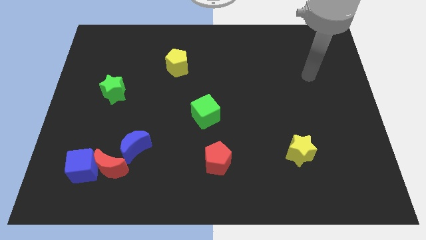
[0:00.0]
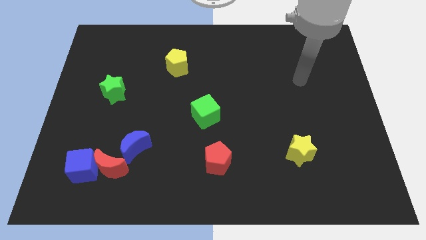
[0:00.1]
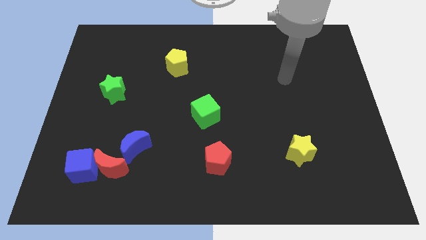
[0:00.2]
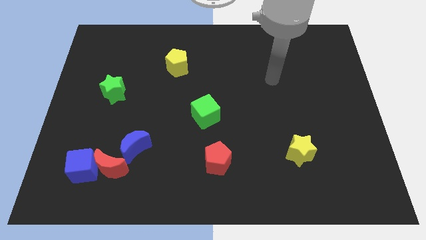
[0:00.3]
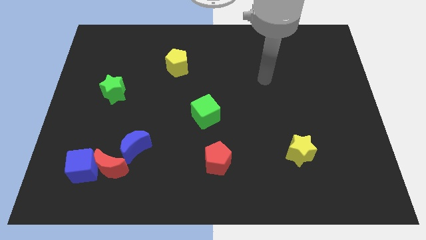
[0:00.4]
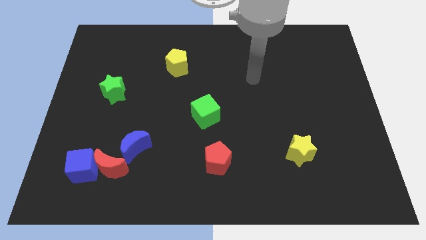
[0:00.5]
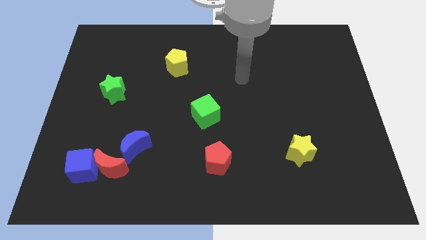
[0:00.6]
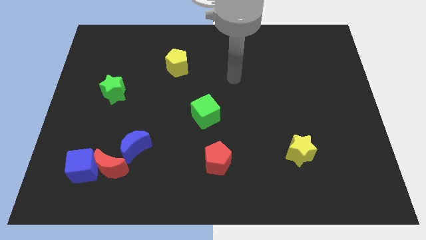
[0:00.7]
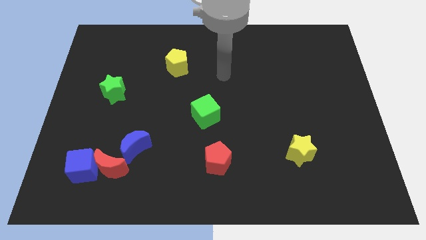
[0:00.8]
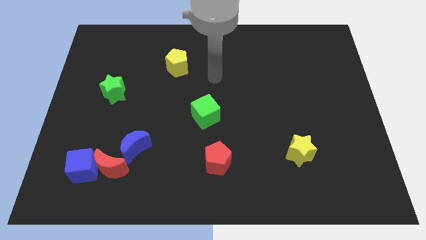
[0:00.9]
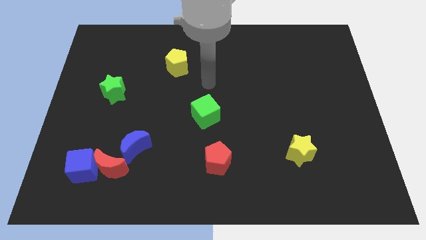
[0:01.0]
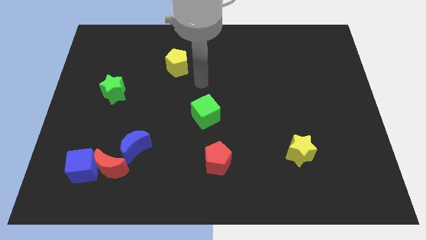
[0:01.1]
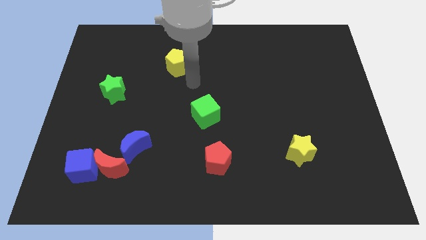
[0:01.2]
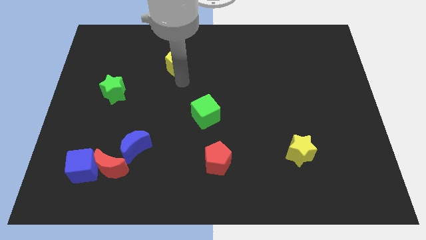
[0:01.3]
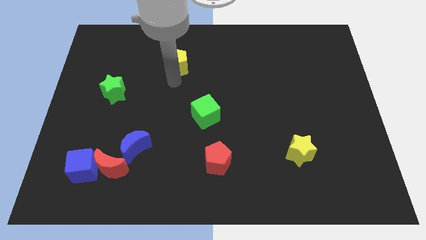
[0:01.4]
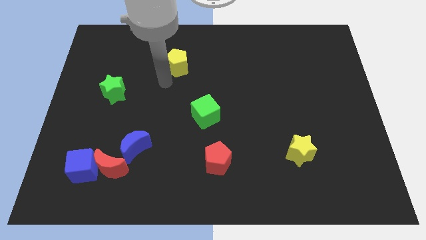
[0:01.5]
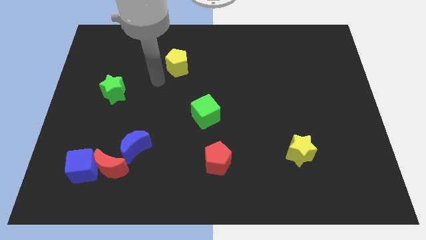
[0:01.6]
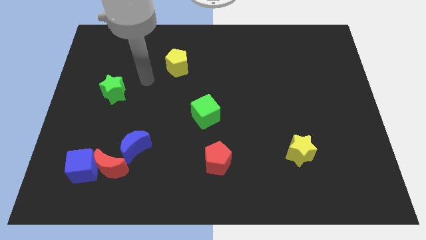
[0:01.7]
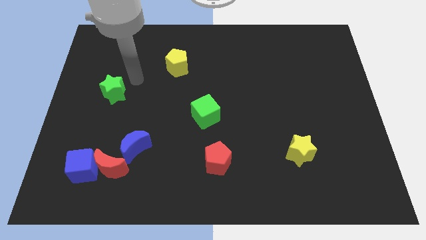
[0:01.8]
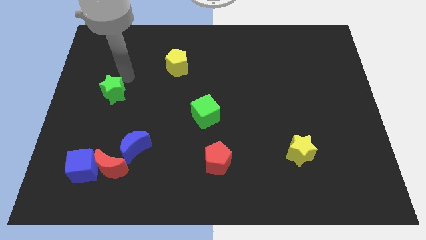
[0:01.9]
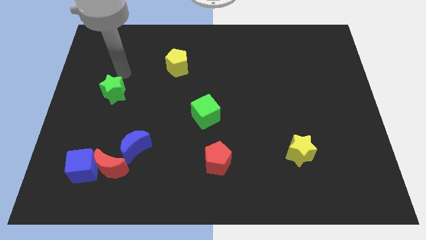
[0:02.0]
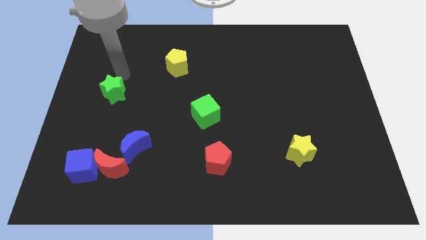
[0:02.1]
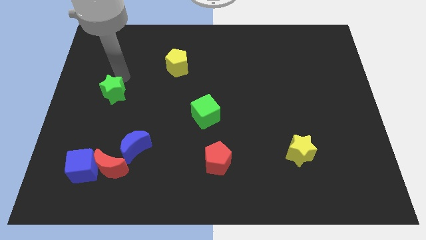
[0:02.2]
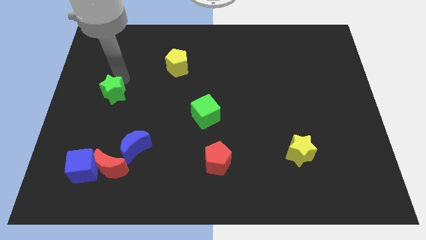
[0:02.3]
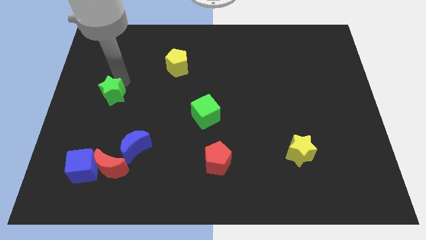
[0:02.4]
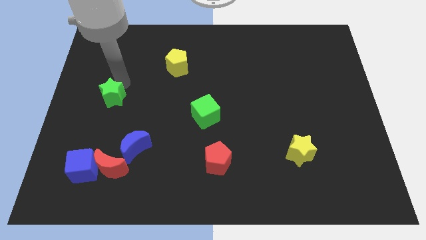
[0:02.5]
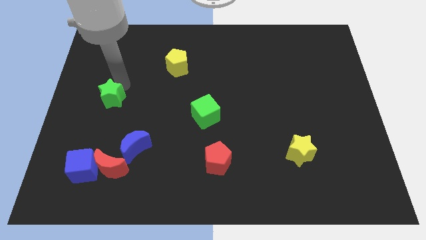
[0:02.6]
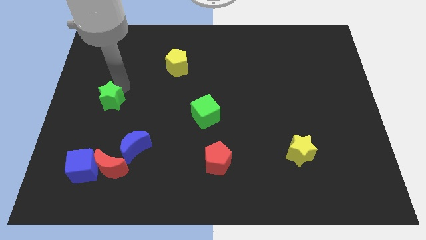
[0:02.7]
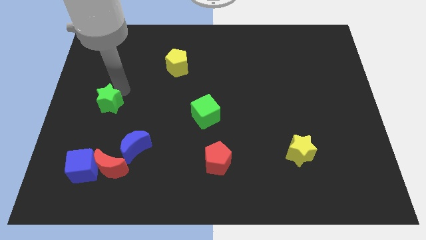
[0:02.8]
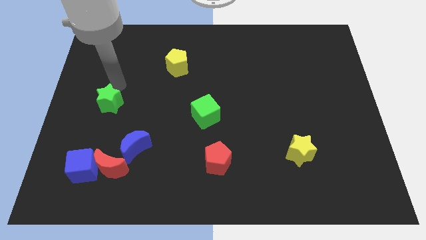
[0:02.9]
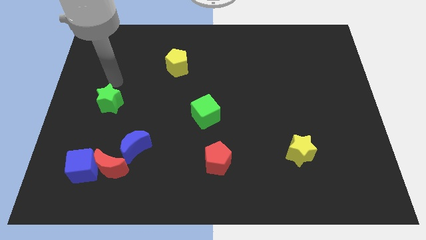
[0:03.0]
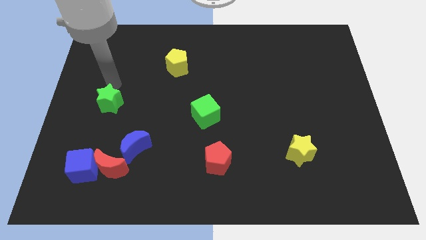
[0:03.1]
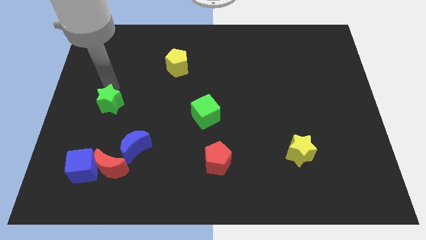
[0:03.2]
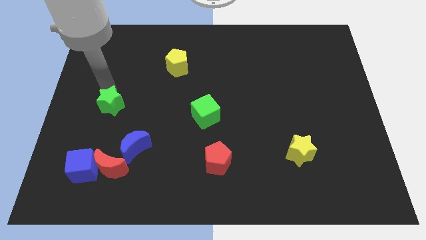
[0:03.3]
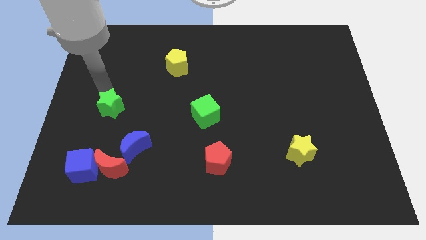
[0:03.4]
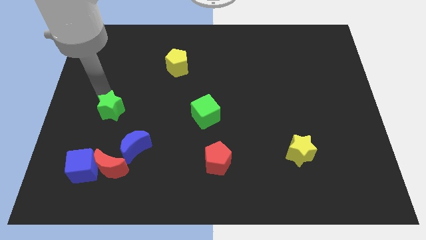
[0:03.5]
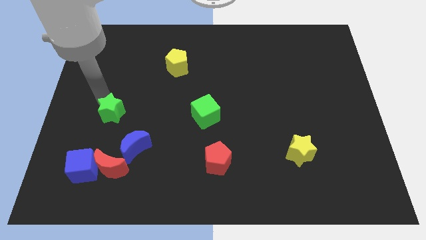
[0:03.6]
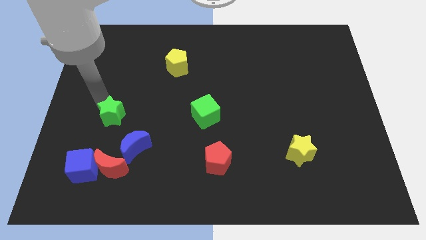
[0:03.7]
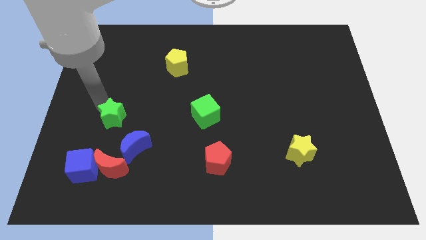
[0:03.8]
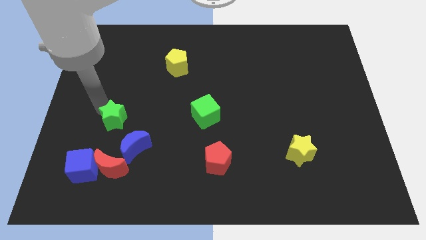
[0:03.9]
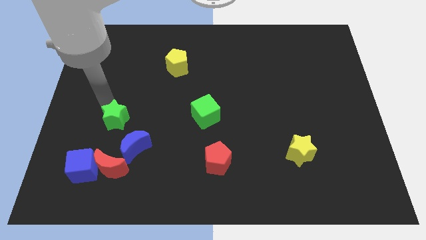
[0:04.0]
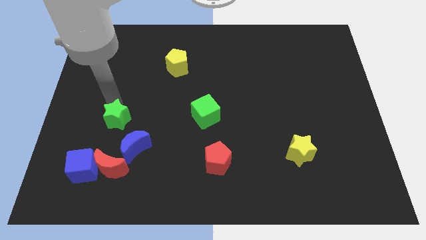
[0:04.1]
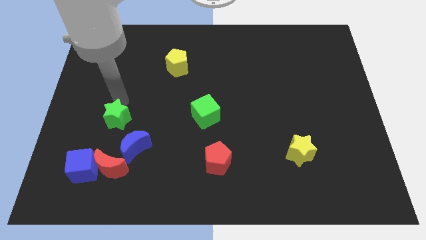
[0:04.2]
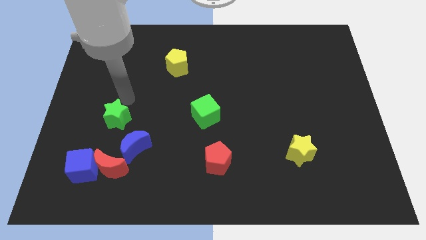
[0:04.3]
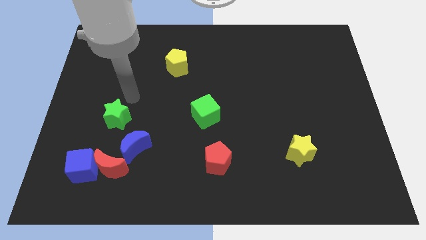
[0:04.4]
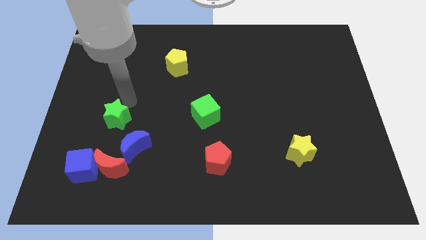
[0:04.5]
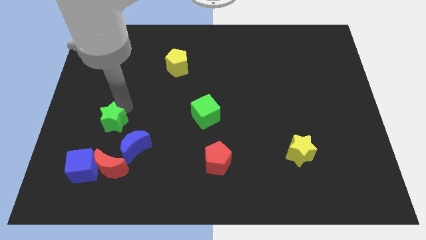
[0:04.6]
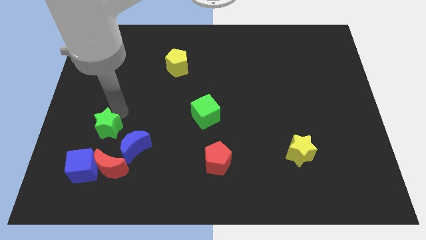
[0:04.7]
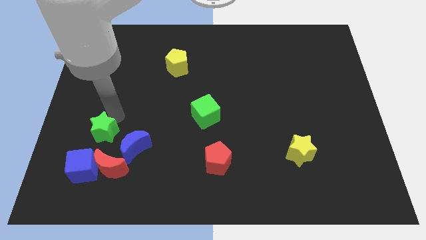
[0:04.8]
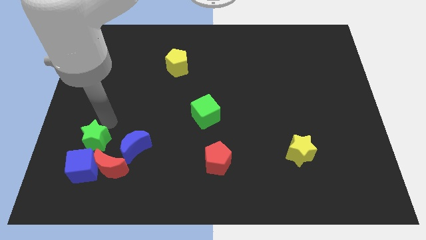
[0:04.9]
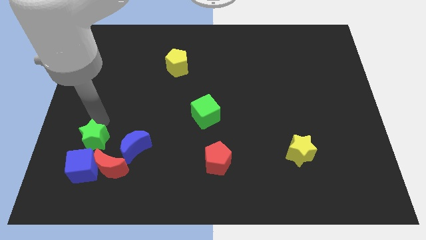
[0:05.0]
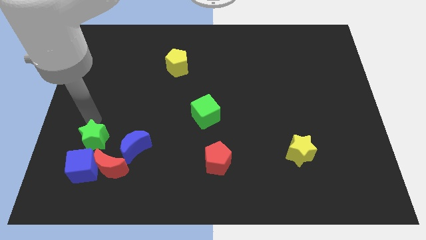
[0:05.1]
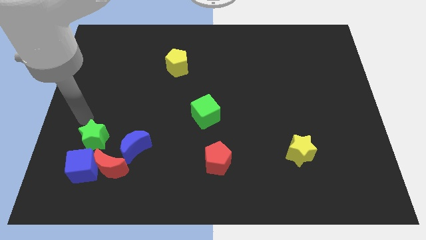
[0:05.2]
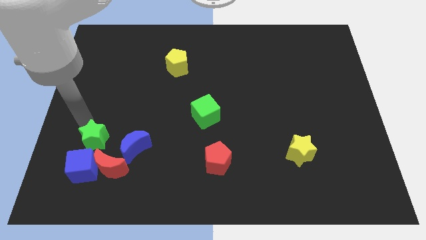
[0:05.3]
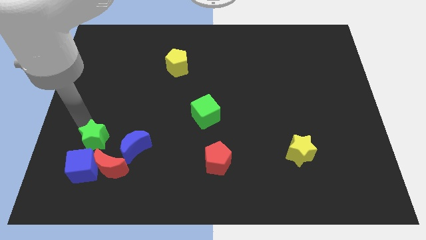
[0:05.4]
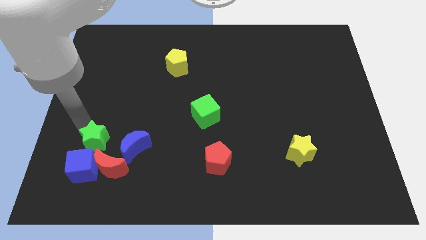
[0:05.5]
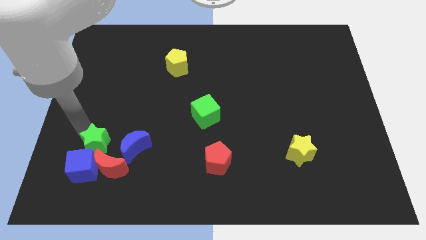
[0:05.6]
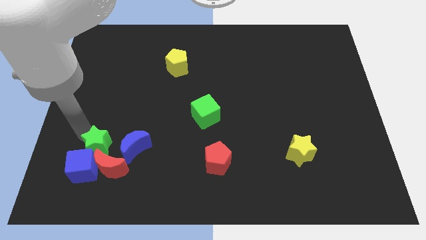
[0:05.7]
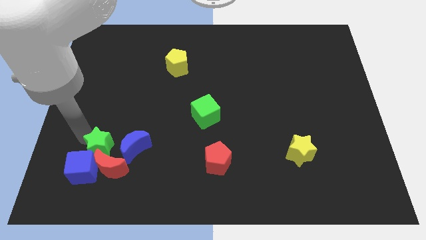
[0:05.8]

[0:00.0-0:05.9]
push the green star next to the red moon

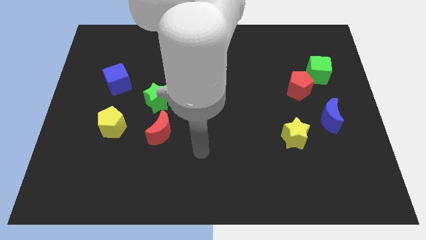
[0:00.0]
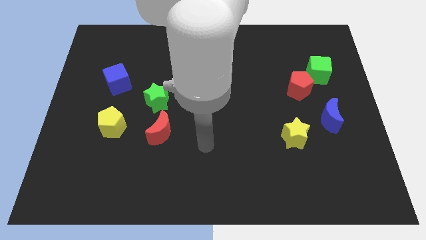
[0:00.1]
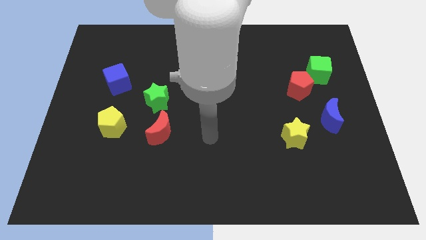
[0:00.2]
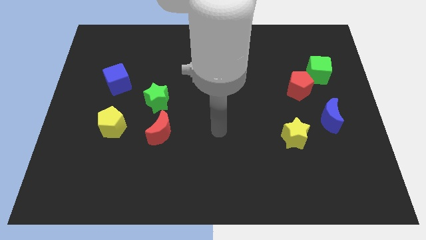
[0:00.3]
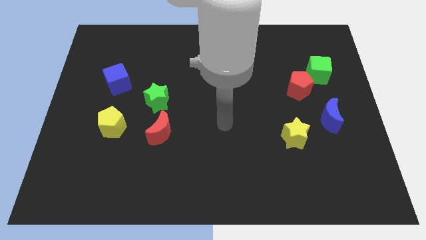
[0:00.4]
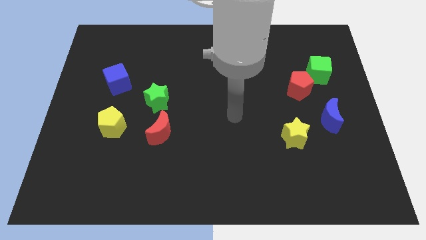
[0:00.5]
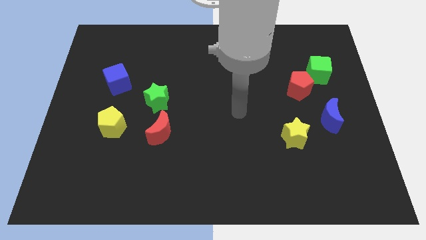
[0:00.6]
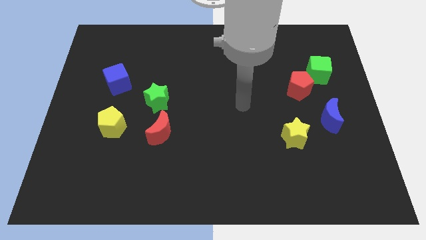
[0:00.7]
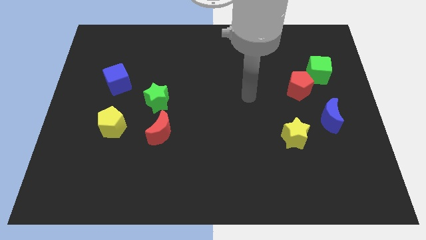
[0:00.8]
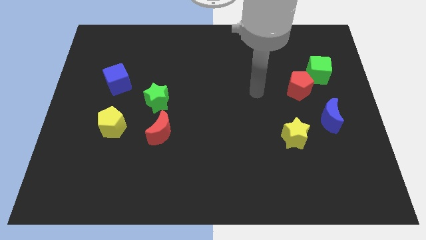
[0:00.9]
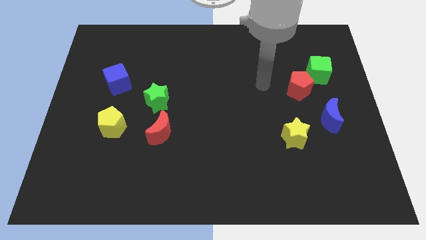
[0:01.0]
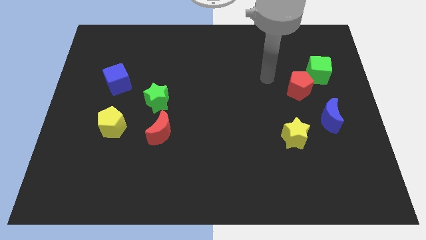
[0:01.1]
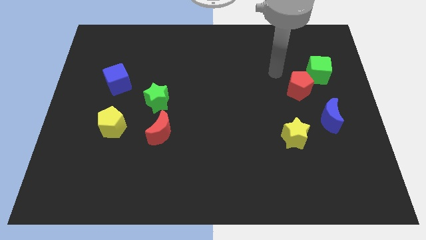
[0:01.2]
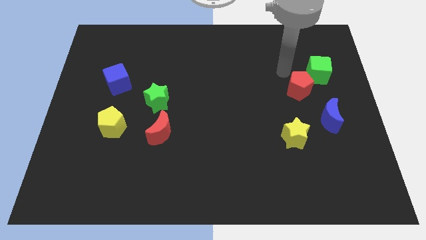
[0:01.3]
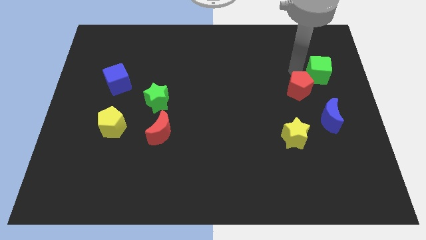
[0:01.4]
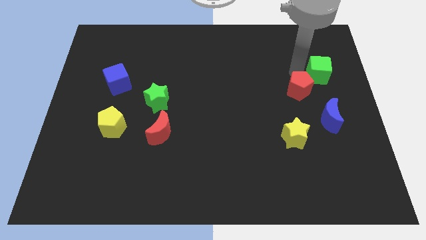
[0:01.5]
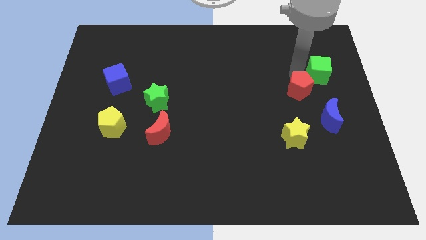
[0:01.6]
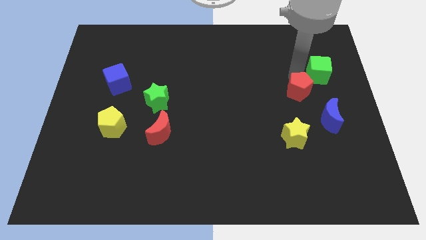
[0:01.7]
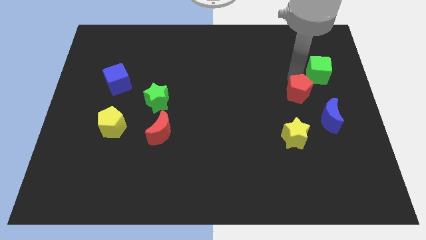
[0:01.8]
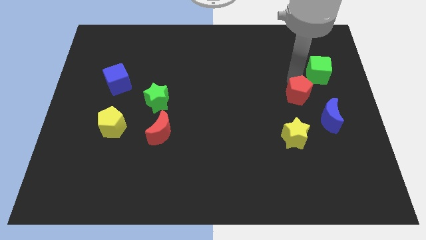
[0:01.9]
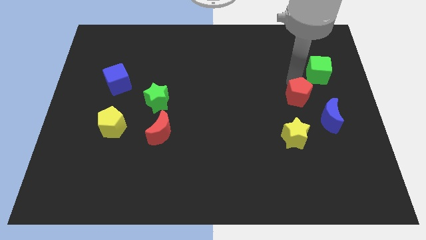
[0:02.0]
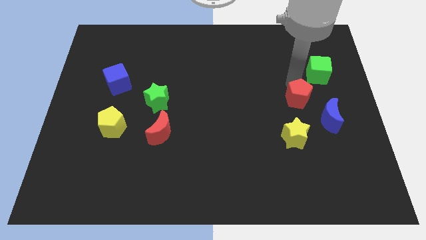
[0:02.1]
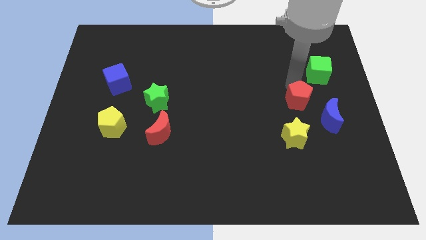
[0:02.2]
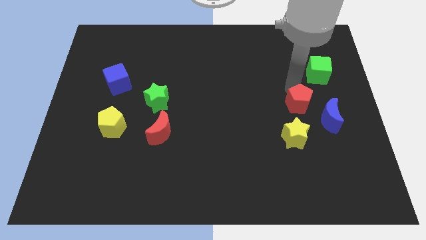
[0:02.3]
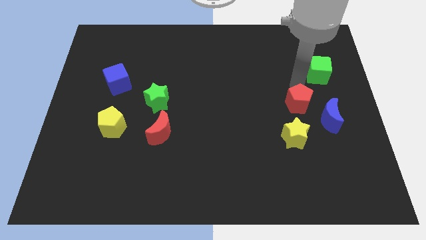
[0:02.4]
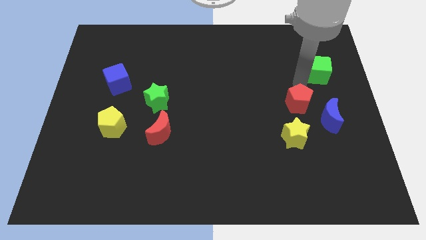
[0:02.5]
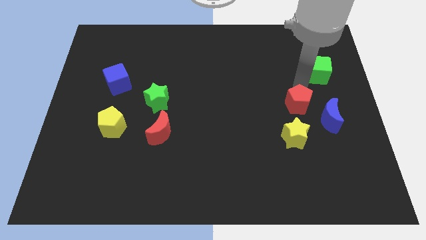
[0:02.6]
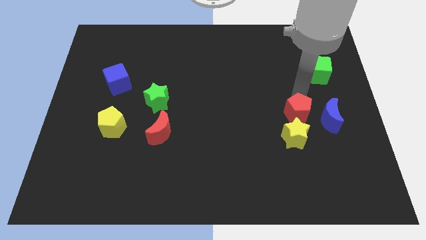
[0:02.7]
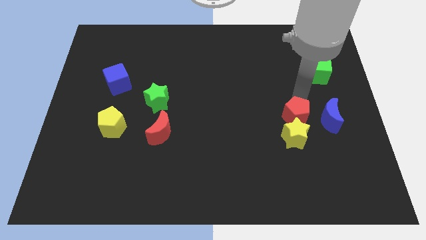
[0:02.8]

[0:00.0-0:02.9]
slide the red pentagon close to the yellow star
